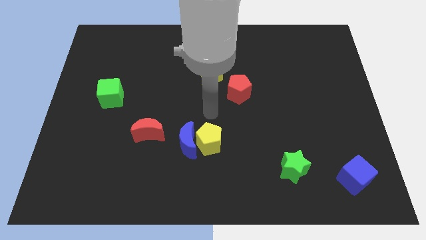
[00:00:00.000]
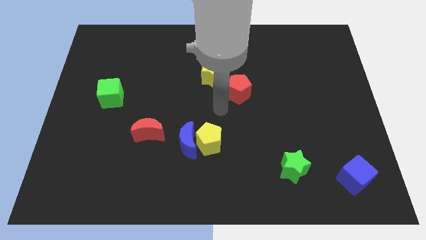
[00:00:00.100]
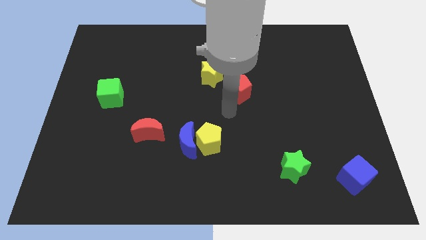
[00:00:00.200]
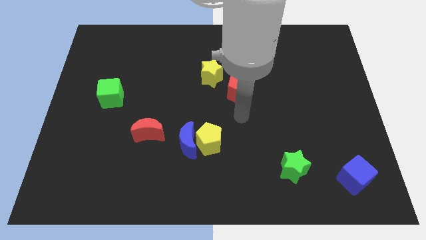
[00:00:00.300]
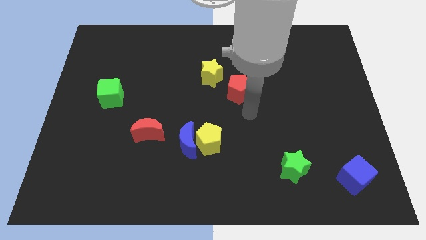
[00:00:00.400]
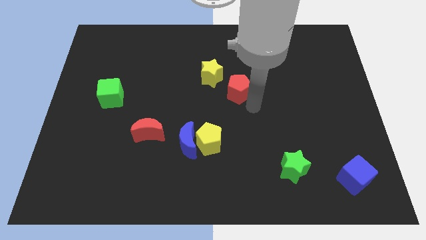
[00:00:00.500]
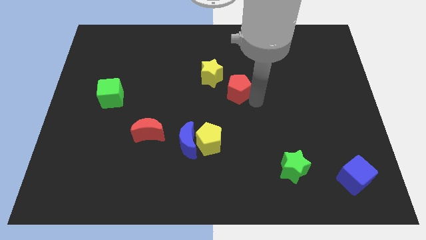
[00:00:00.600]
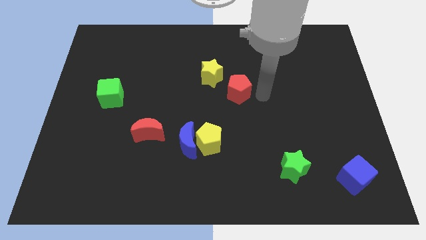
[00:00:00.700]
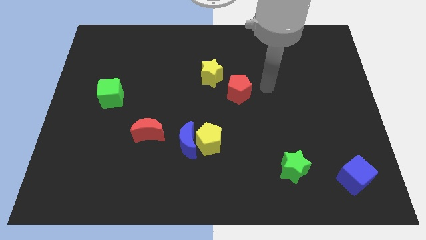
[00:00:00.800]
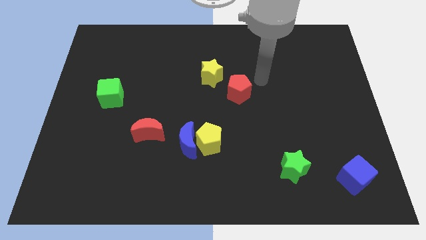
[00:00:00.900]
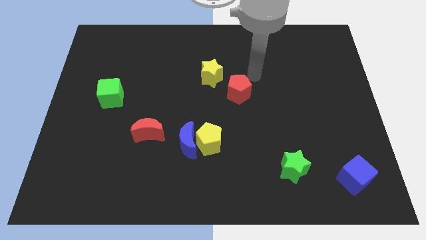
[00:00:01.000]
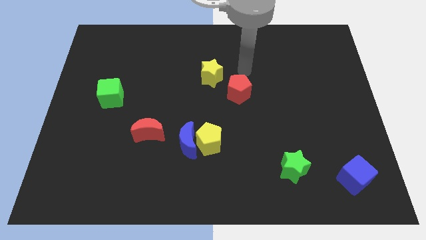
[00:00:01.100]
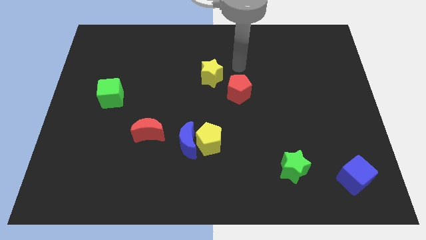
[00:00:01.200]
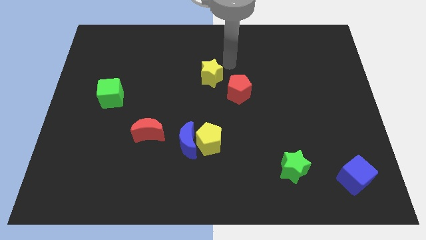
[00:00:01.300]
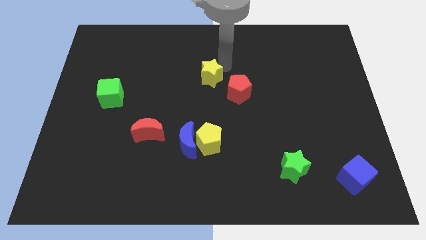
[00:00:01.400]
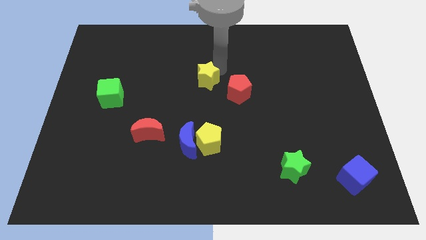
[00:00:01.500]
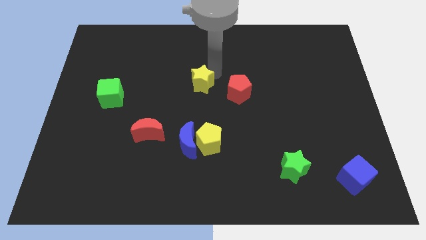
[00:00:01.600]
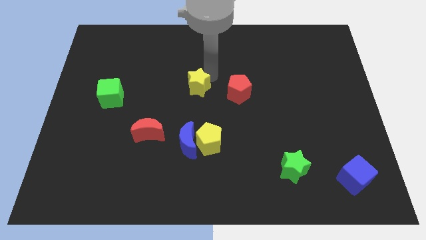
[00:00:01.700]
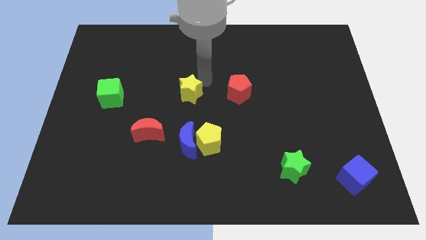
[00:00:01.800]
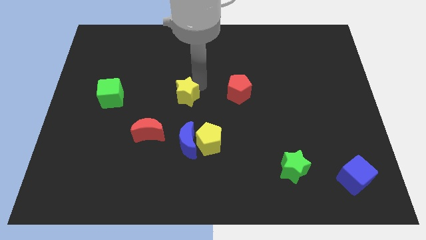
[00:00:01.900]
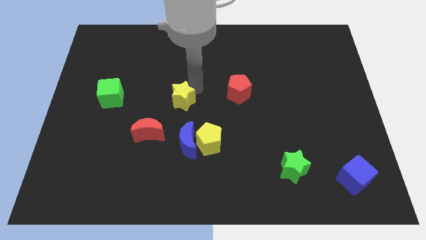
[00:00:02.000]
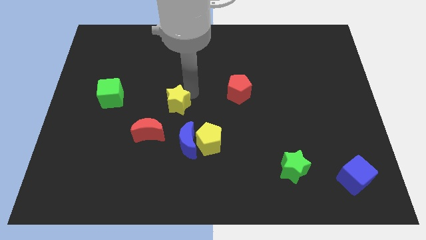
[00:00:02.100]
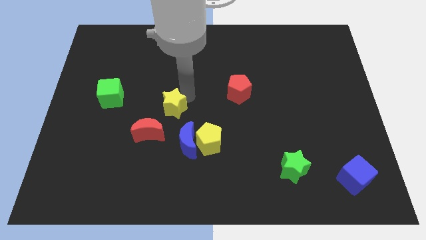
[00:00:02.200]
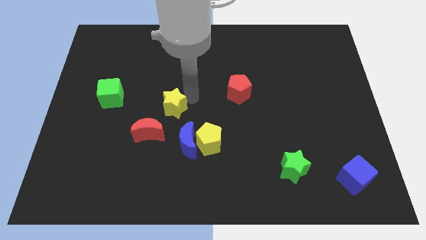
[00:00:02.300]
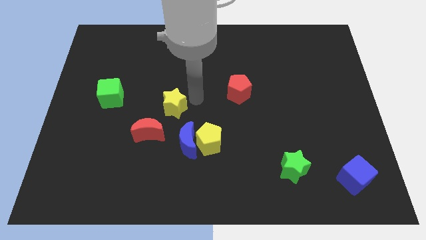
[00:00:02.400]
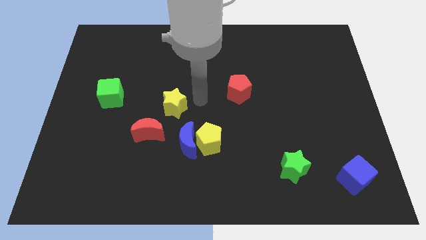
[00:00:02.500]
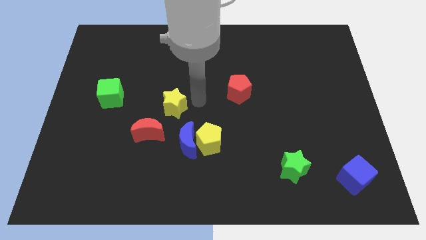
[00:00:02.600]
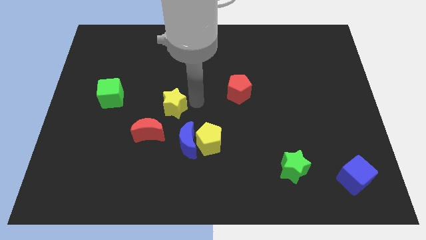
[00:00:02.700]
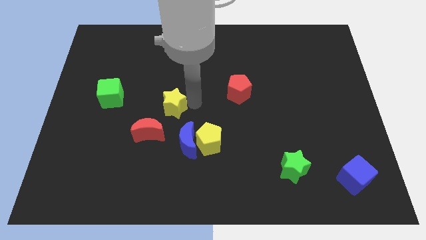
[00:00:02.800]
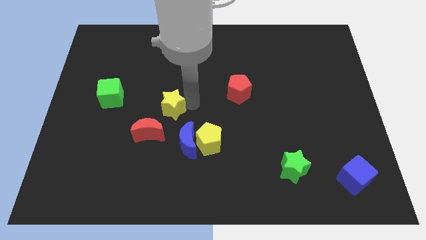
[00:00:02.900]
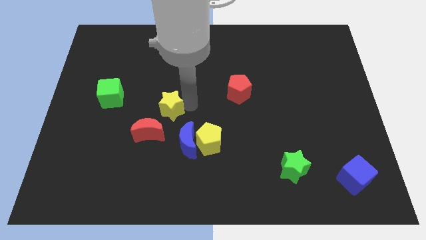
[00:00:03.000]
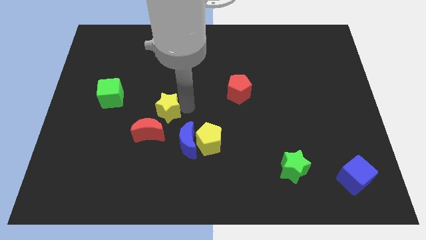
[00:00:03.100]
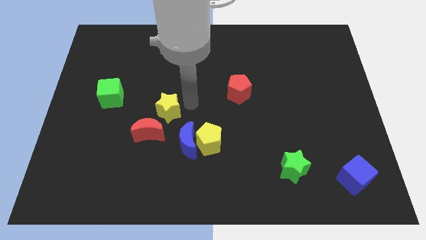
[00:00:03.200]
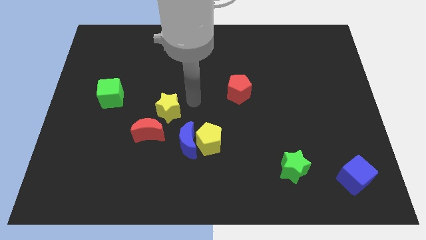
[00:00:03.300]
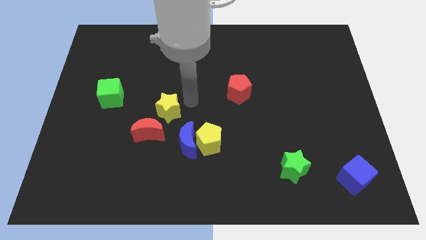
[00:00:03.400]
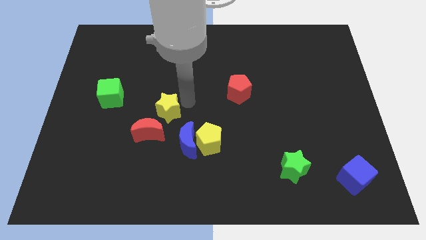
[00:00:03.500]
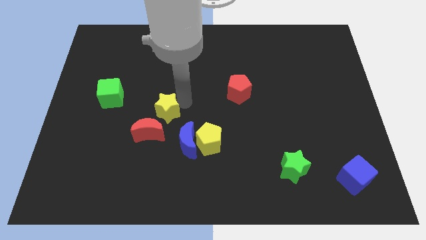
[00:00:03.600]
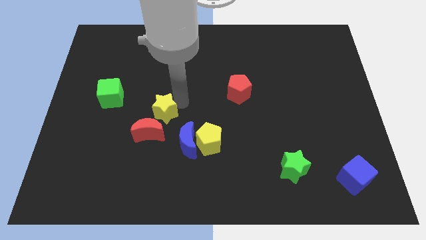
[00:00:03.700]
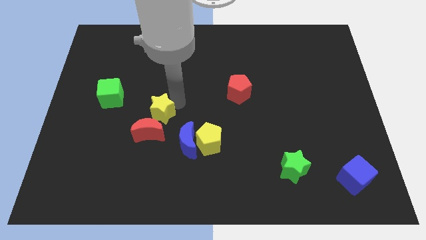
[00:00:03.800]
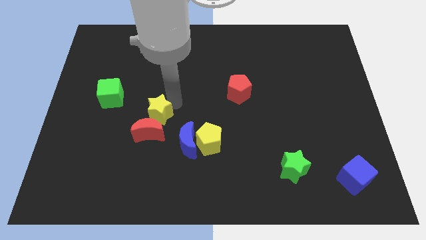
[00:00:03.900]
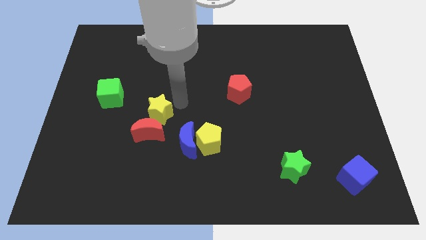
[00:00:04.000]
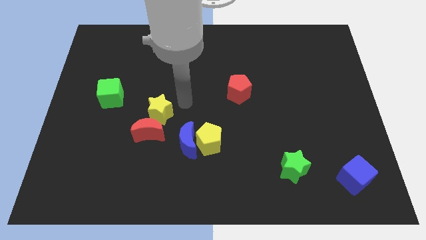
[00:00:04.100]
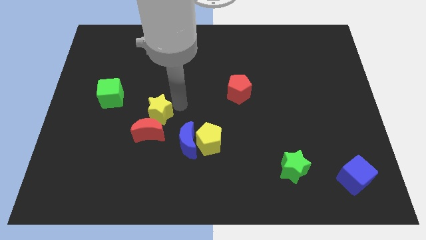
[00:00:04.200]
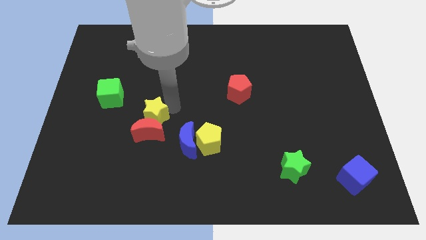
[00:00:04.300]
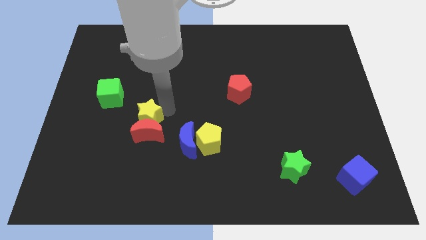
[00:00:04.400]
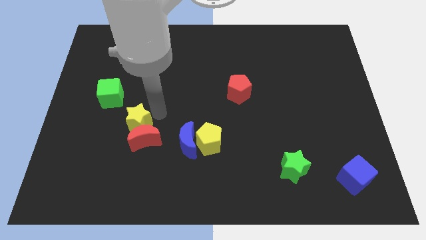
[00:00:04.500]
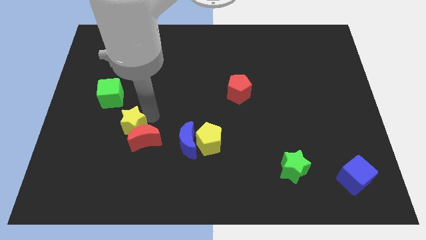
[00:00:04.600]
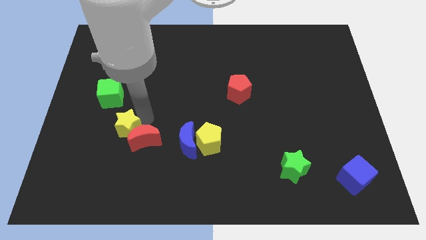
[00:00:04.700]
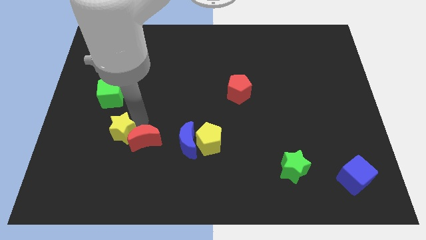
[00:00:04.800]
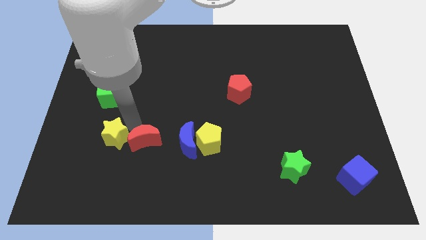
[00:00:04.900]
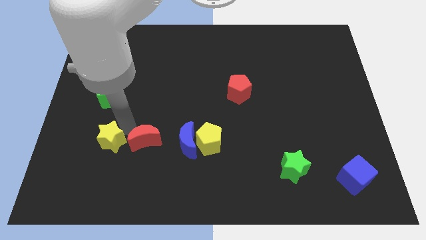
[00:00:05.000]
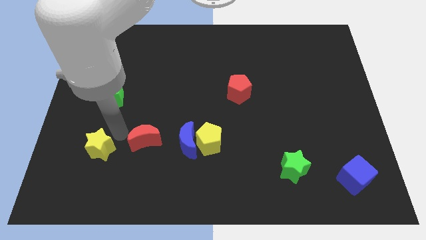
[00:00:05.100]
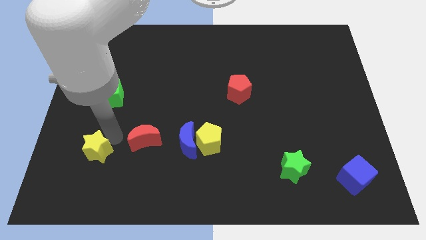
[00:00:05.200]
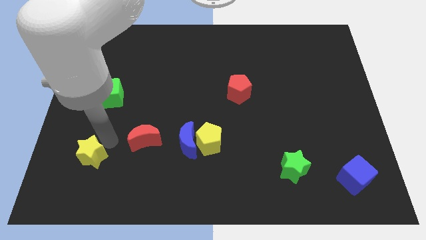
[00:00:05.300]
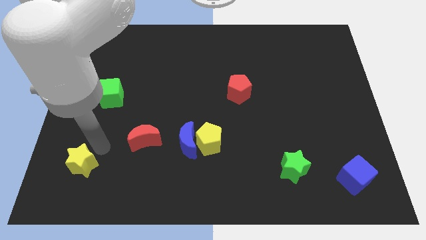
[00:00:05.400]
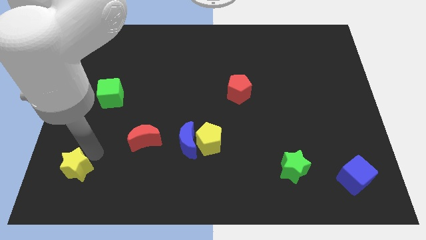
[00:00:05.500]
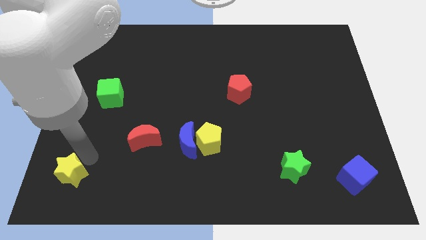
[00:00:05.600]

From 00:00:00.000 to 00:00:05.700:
put the yellow star to the bottom left corner

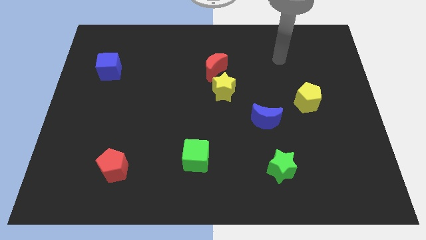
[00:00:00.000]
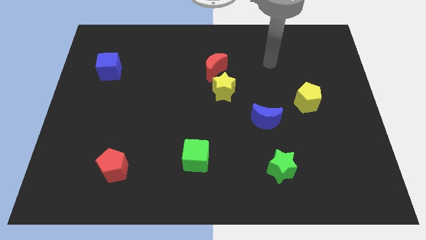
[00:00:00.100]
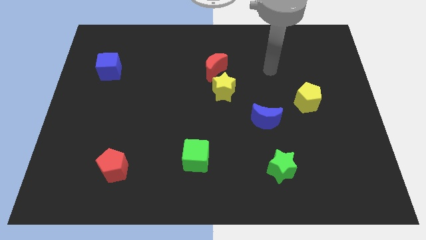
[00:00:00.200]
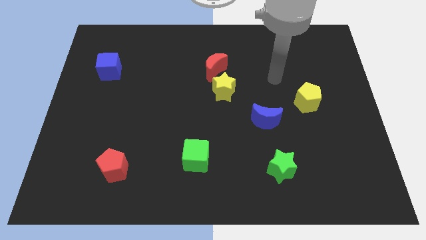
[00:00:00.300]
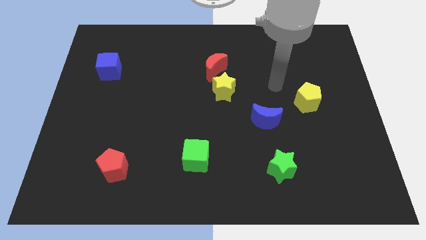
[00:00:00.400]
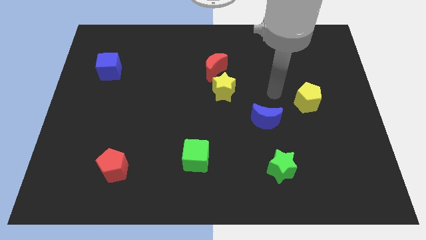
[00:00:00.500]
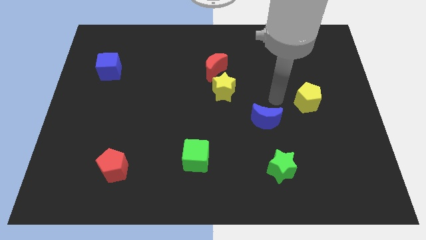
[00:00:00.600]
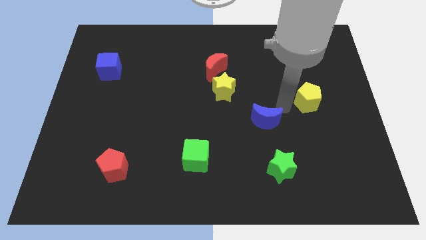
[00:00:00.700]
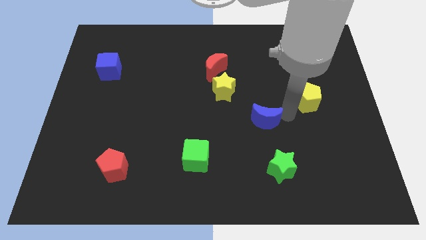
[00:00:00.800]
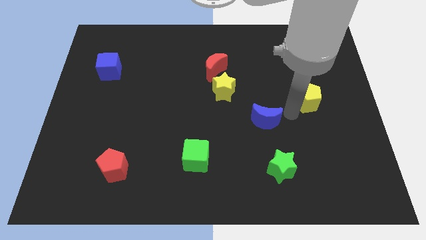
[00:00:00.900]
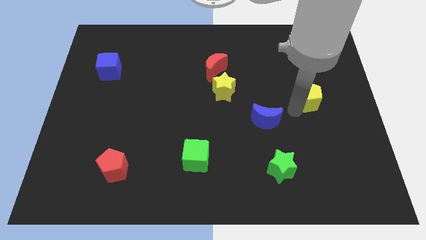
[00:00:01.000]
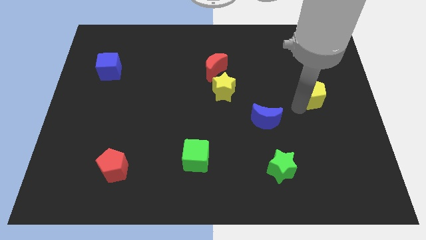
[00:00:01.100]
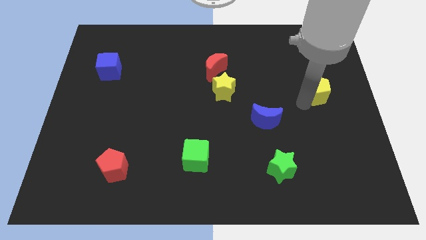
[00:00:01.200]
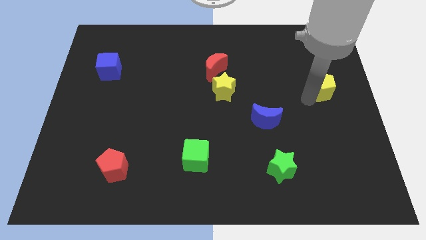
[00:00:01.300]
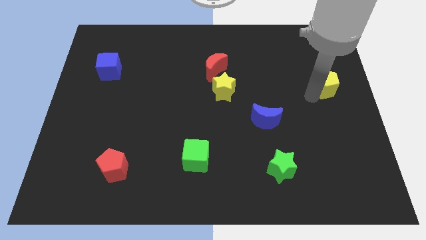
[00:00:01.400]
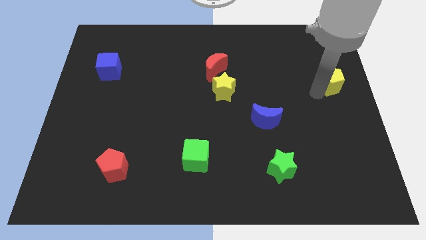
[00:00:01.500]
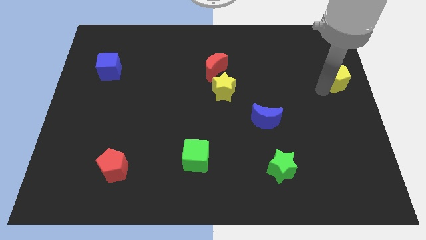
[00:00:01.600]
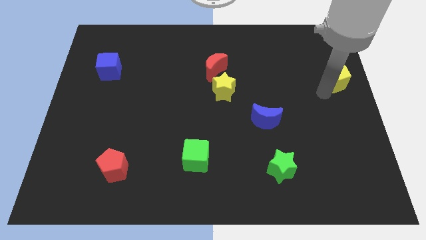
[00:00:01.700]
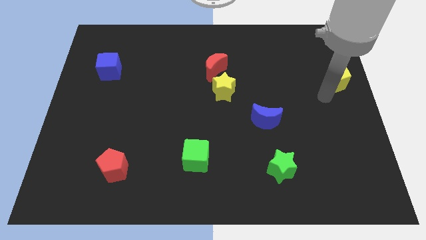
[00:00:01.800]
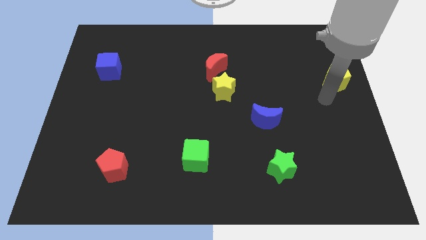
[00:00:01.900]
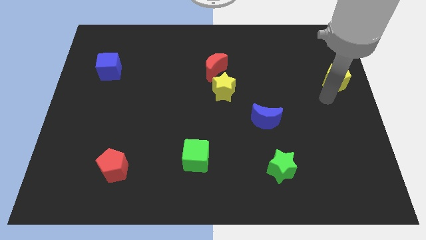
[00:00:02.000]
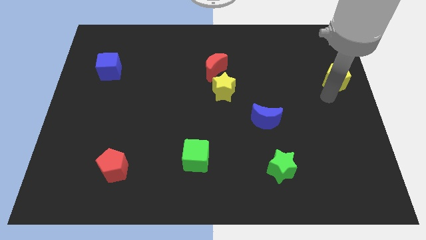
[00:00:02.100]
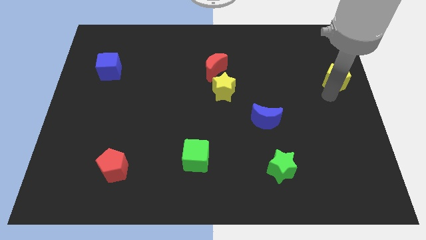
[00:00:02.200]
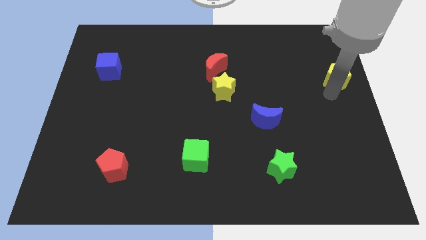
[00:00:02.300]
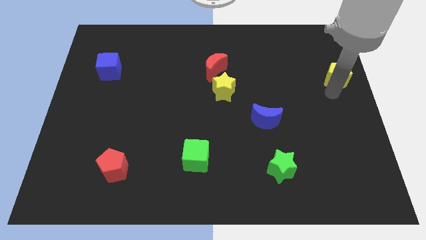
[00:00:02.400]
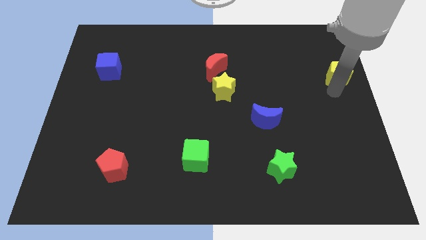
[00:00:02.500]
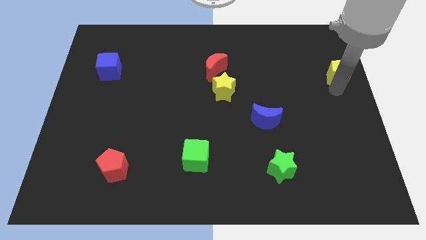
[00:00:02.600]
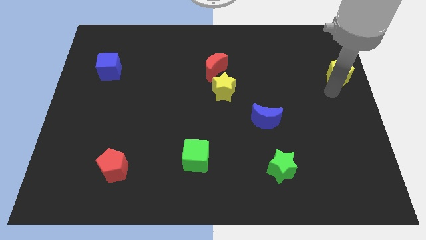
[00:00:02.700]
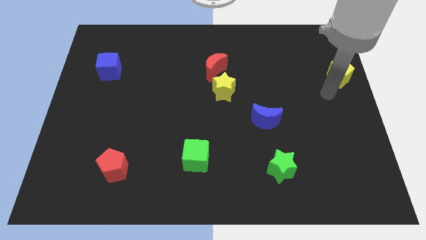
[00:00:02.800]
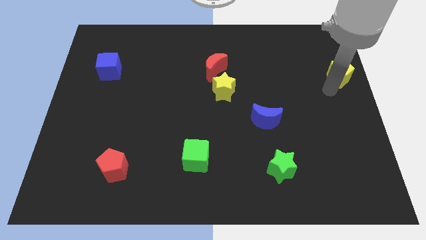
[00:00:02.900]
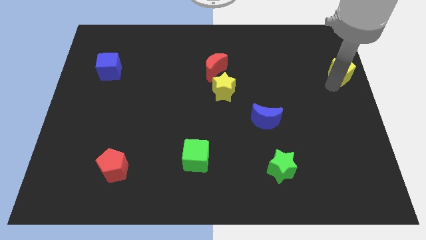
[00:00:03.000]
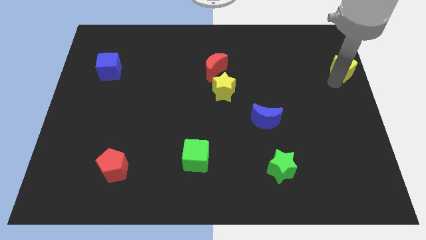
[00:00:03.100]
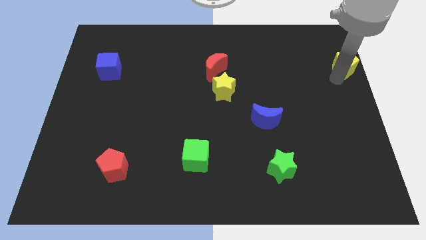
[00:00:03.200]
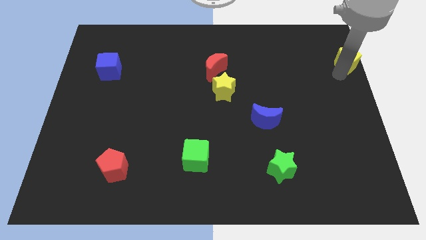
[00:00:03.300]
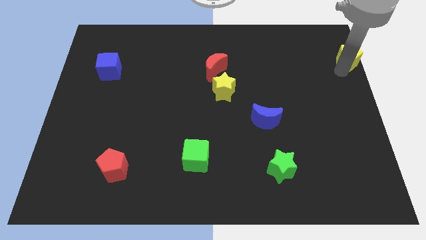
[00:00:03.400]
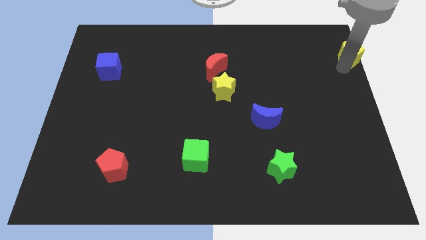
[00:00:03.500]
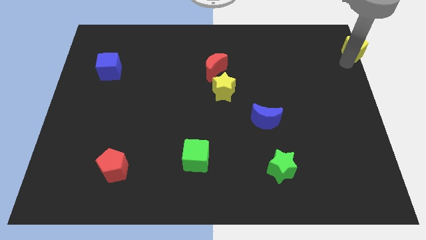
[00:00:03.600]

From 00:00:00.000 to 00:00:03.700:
move the yellow pentagon to the upper right corner
